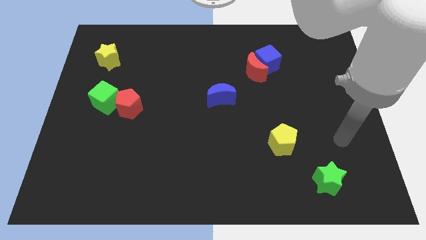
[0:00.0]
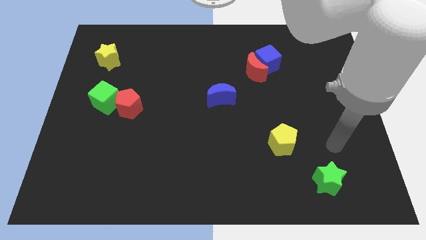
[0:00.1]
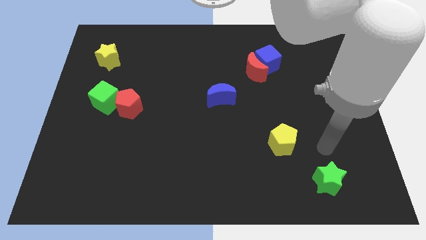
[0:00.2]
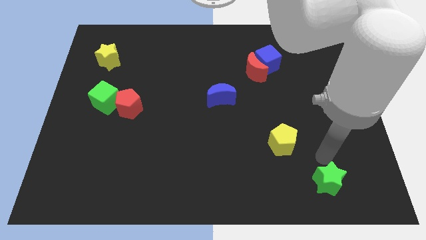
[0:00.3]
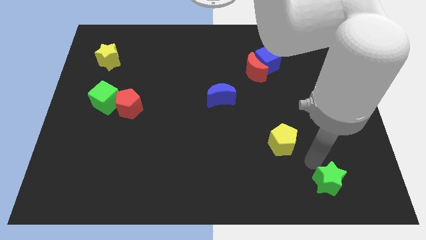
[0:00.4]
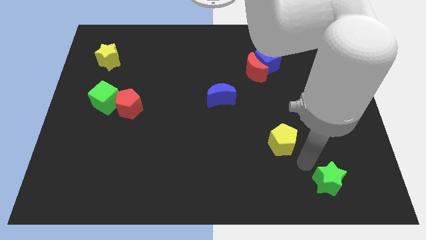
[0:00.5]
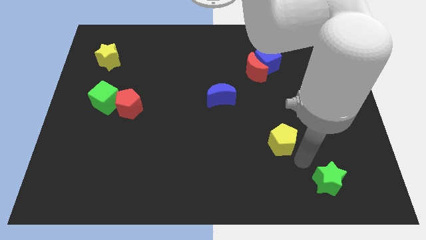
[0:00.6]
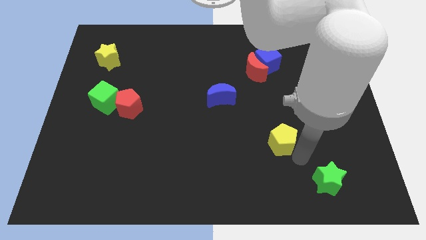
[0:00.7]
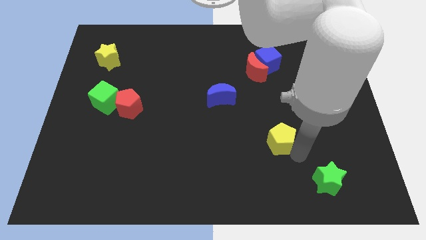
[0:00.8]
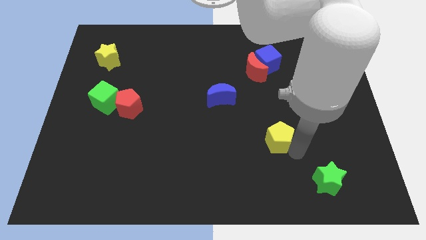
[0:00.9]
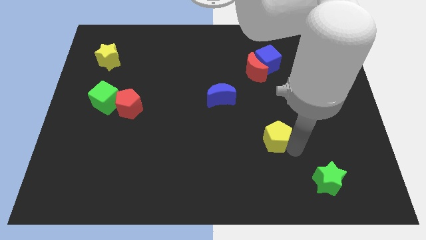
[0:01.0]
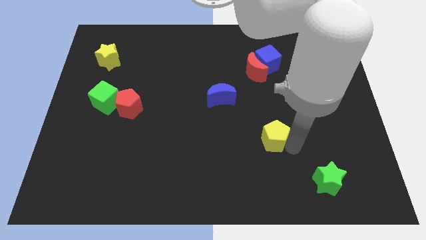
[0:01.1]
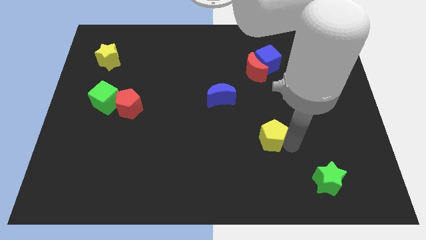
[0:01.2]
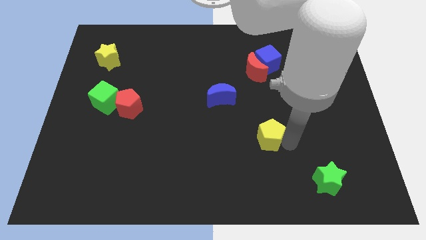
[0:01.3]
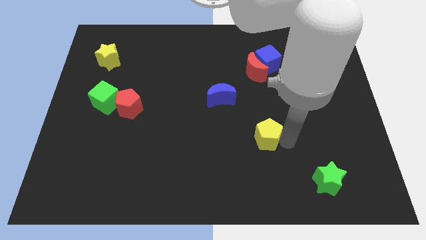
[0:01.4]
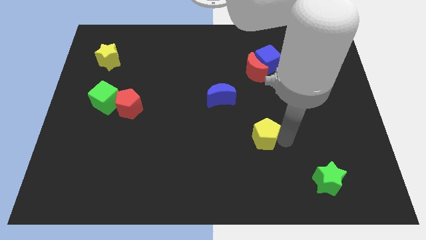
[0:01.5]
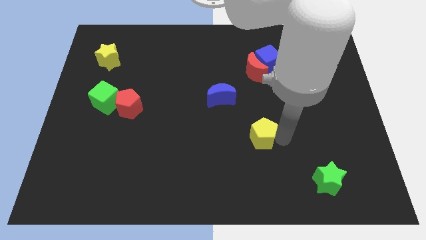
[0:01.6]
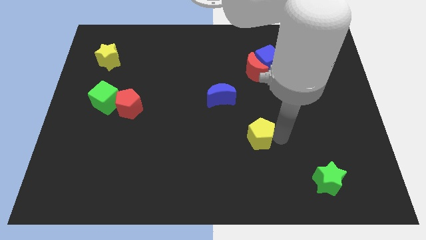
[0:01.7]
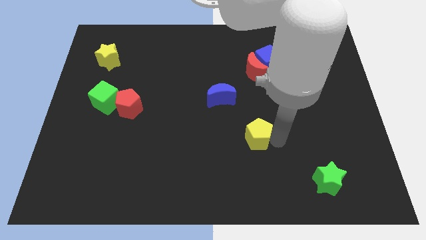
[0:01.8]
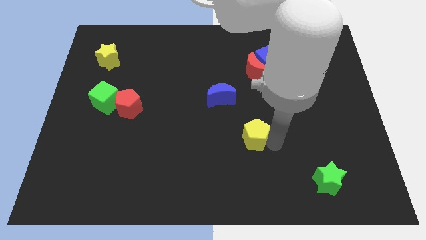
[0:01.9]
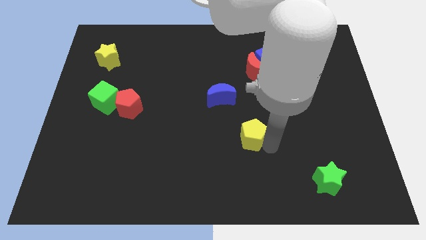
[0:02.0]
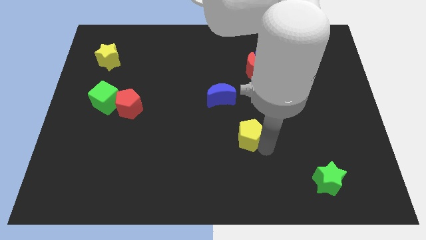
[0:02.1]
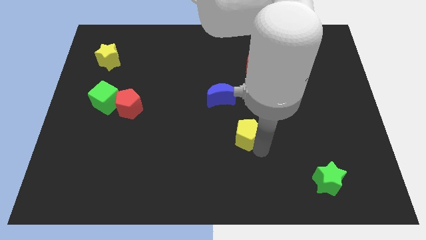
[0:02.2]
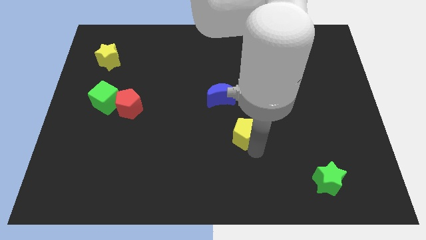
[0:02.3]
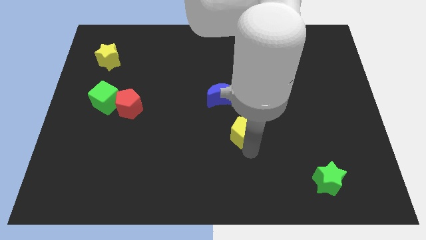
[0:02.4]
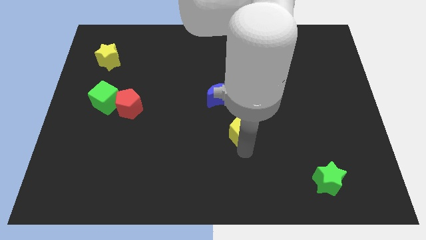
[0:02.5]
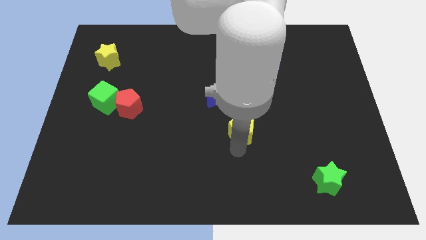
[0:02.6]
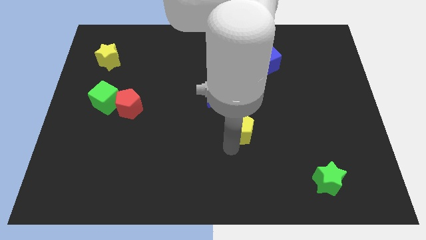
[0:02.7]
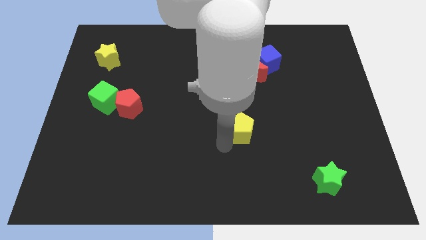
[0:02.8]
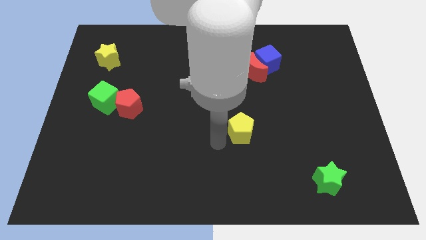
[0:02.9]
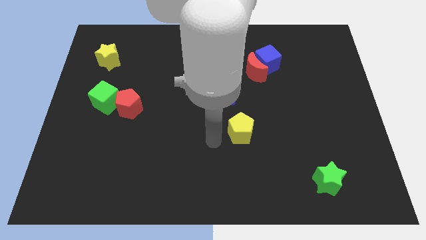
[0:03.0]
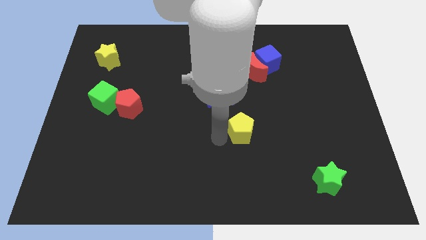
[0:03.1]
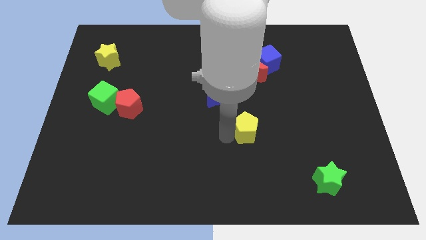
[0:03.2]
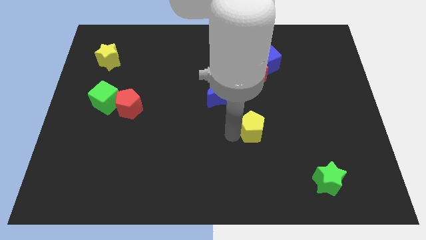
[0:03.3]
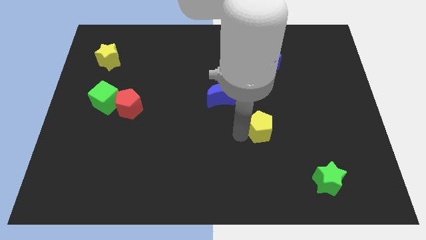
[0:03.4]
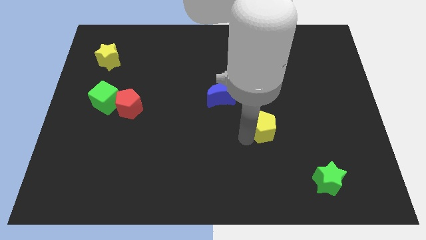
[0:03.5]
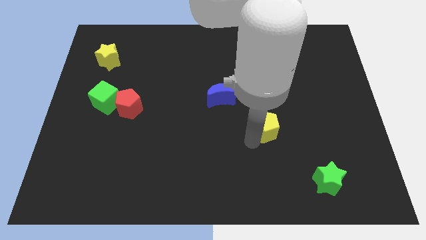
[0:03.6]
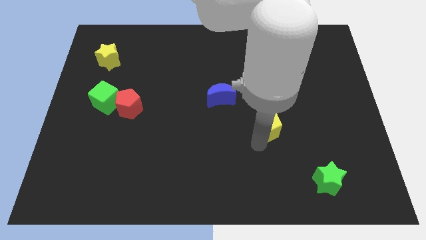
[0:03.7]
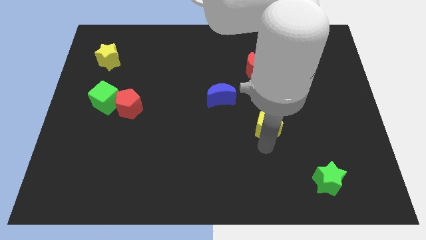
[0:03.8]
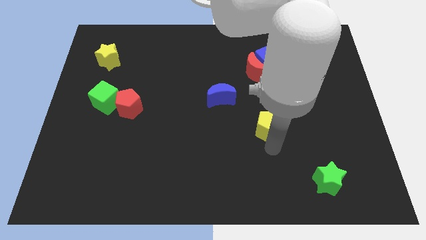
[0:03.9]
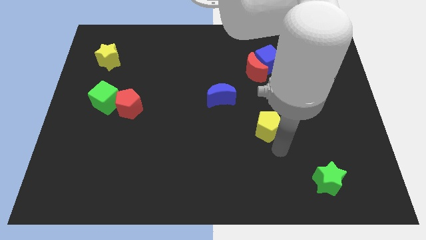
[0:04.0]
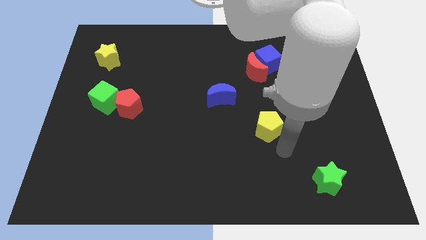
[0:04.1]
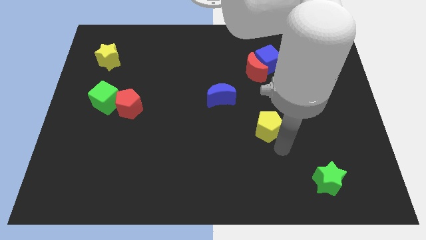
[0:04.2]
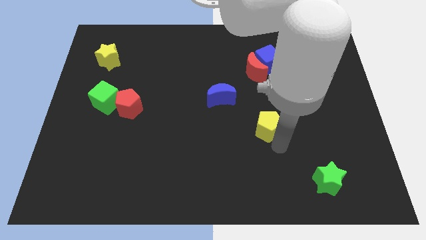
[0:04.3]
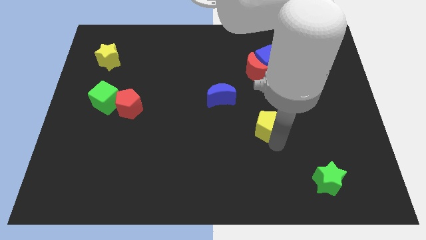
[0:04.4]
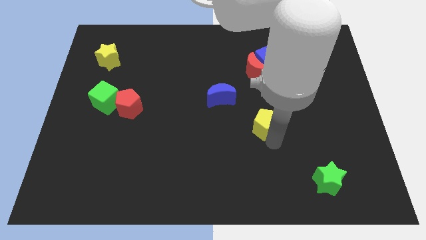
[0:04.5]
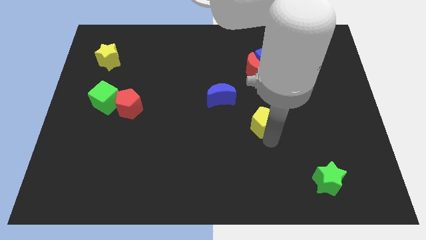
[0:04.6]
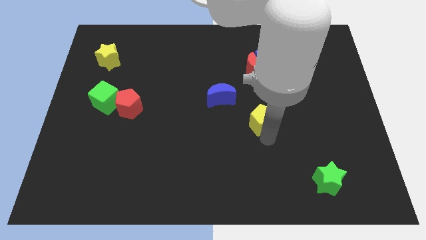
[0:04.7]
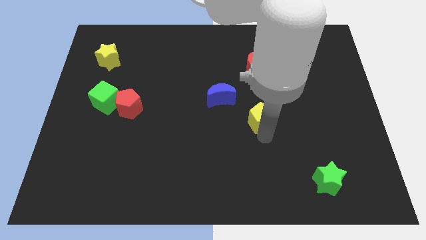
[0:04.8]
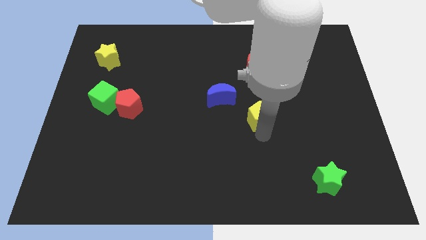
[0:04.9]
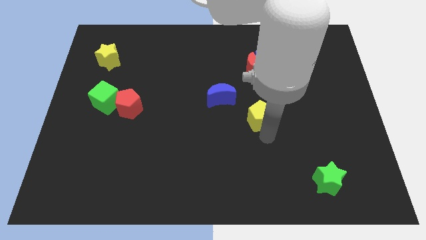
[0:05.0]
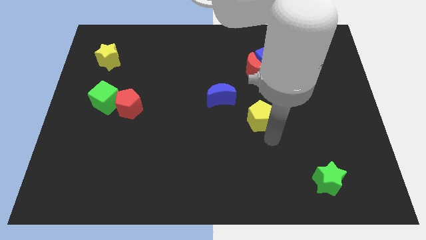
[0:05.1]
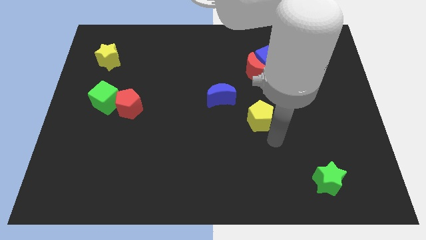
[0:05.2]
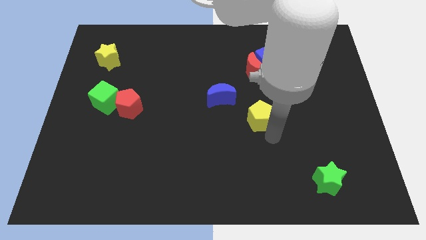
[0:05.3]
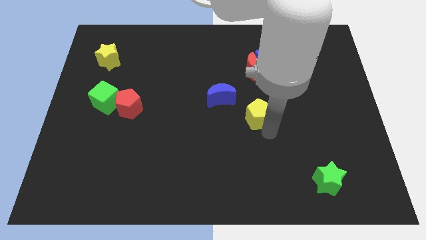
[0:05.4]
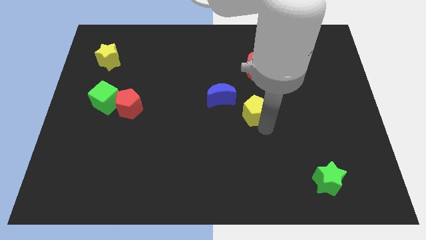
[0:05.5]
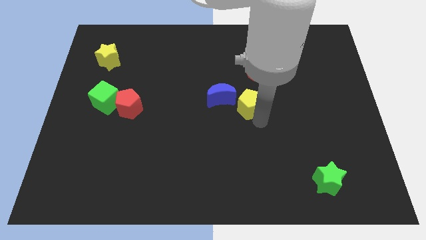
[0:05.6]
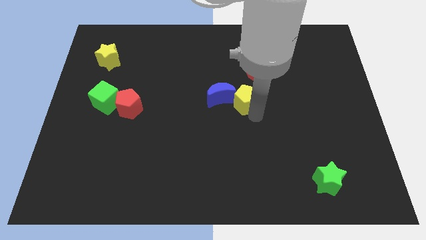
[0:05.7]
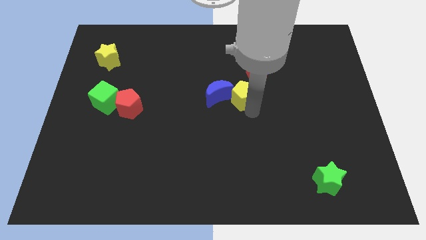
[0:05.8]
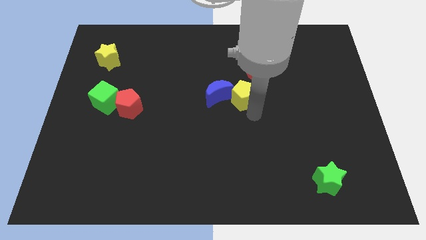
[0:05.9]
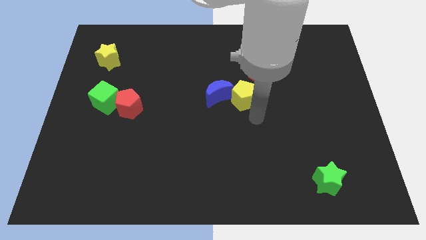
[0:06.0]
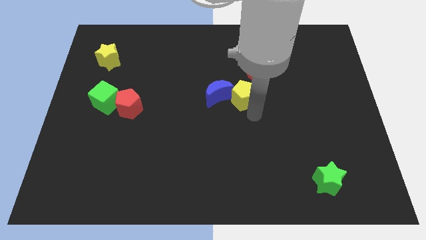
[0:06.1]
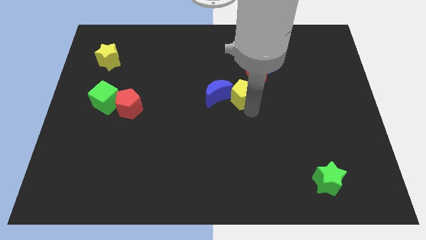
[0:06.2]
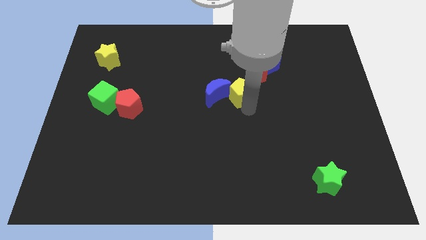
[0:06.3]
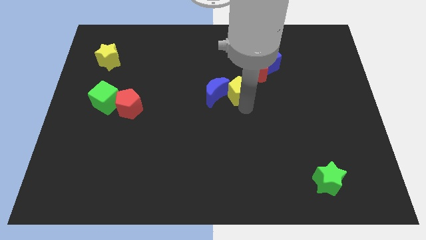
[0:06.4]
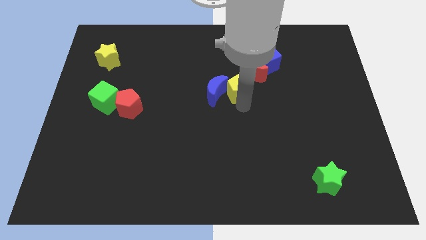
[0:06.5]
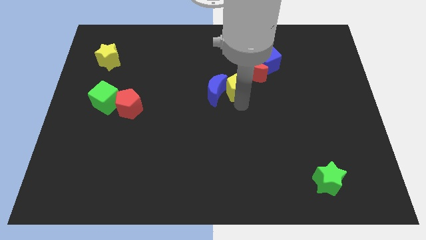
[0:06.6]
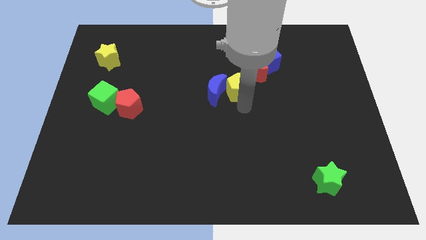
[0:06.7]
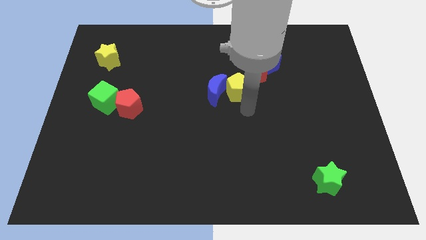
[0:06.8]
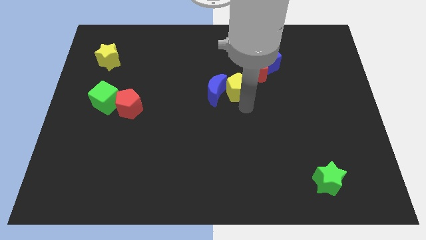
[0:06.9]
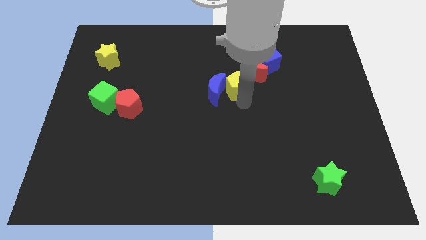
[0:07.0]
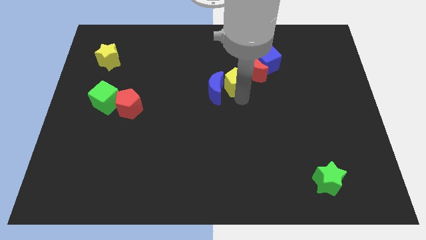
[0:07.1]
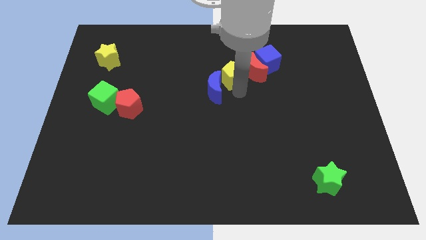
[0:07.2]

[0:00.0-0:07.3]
push the yellow pentagon to the top of the blue moon
